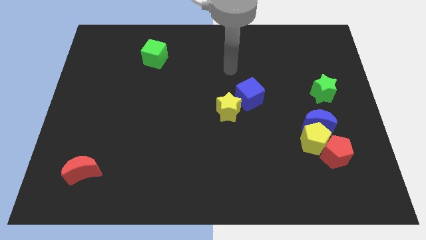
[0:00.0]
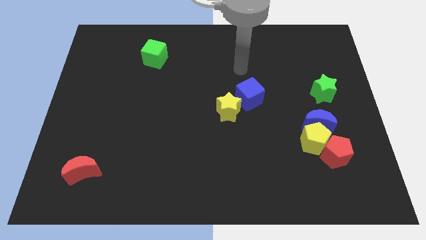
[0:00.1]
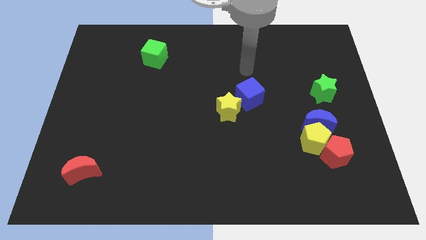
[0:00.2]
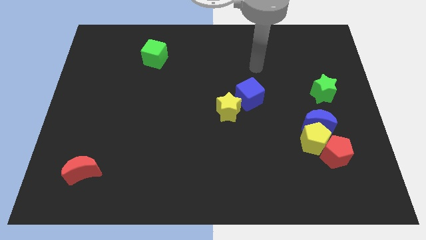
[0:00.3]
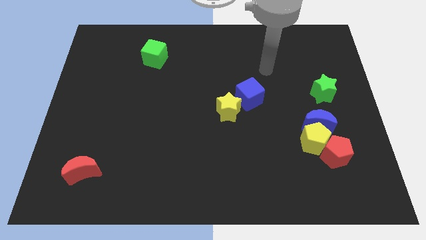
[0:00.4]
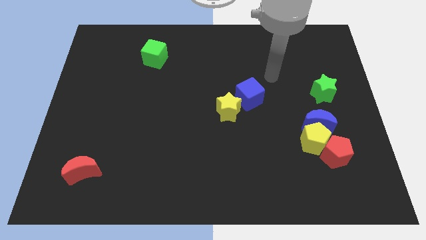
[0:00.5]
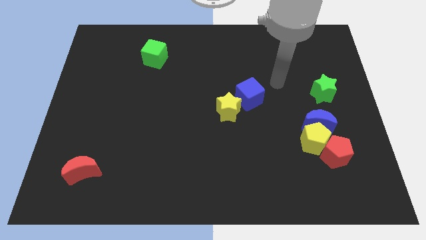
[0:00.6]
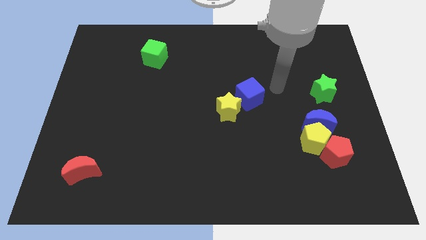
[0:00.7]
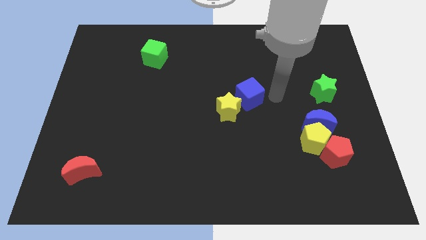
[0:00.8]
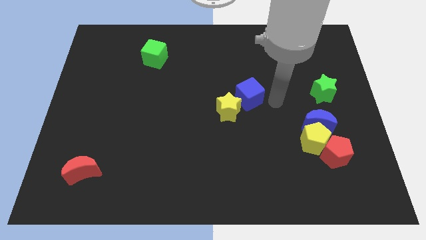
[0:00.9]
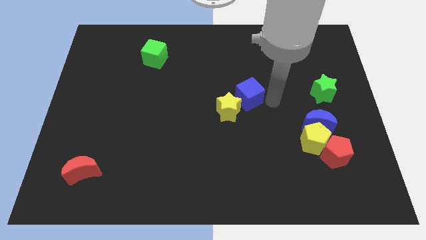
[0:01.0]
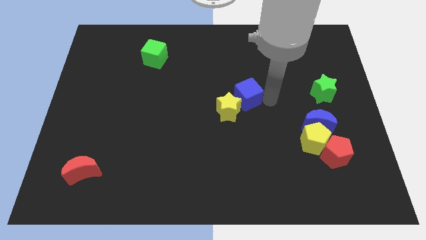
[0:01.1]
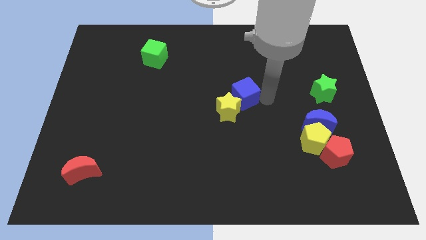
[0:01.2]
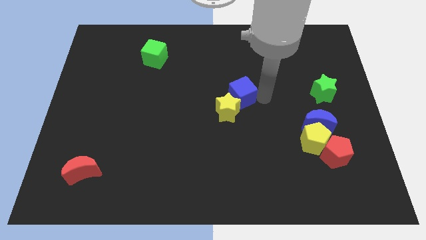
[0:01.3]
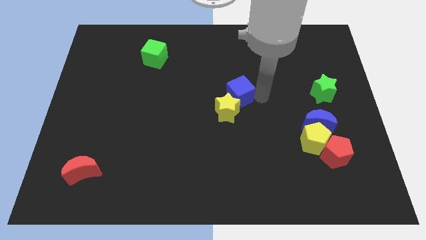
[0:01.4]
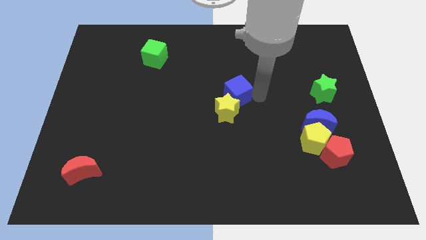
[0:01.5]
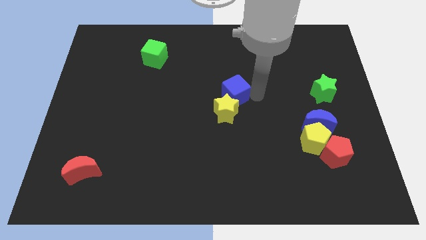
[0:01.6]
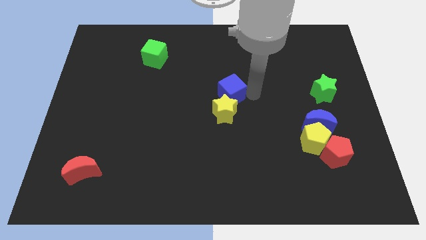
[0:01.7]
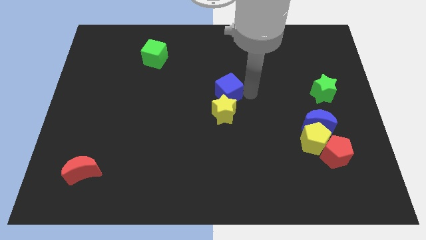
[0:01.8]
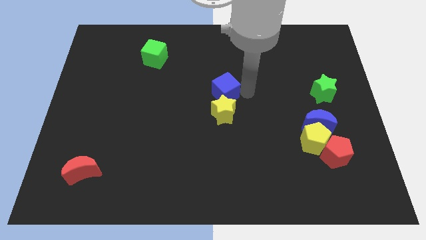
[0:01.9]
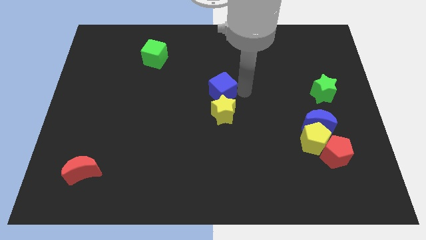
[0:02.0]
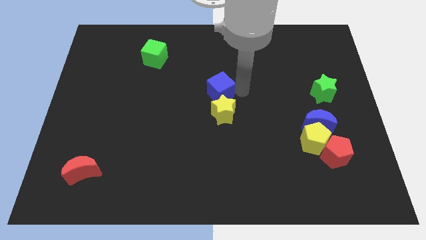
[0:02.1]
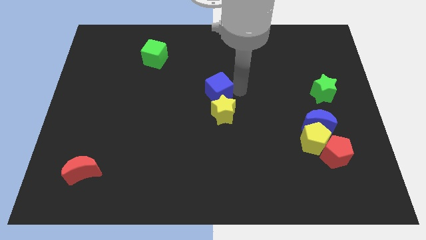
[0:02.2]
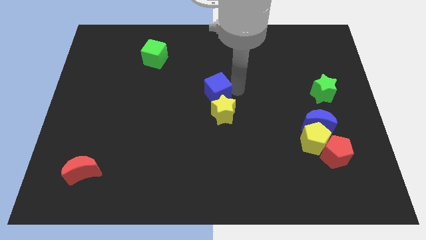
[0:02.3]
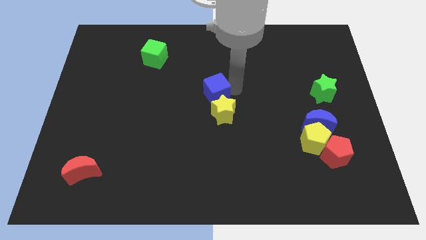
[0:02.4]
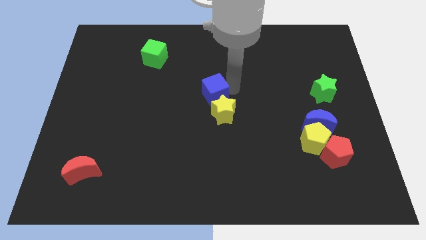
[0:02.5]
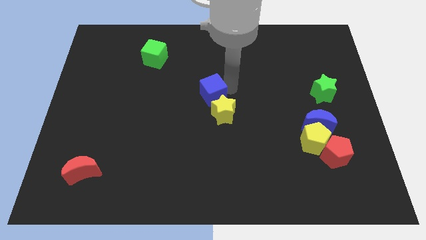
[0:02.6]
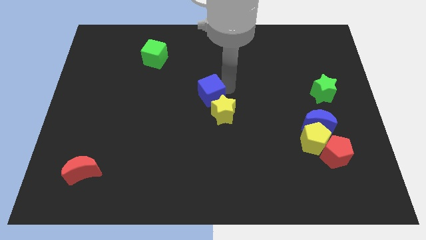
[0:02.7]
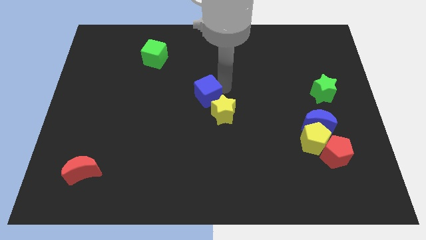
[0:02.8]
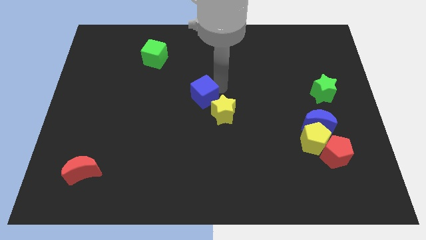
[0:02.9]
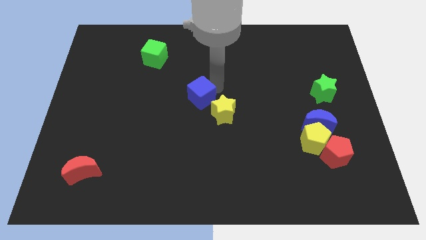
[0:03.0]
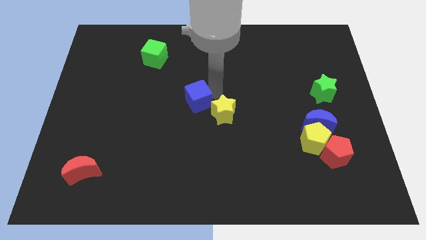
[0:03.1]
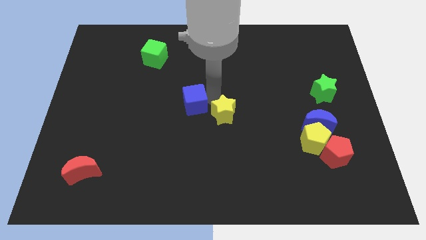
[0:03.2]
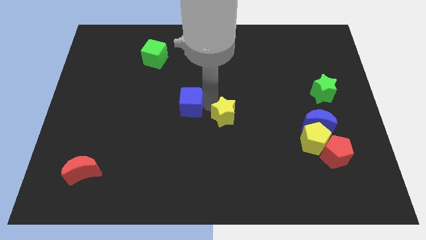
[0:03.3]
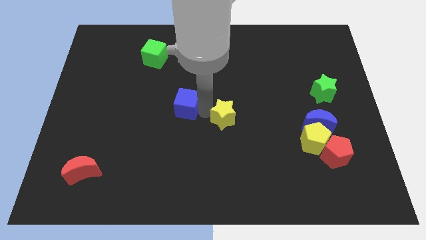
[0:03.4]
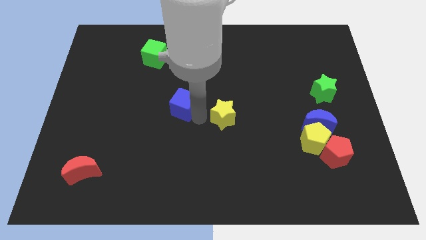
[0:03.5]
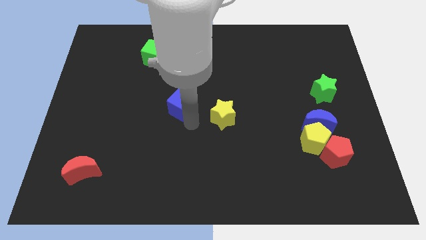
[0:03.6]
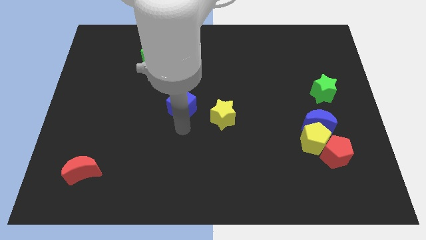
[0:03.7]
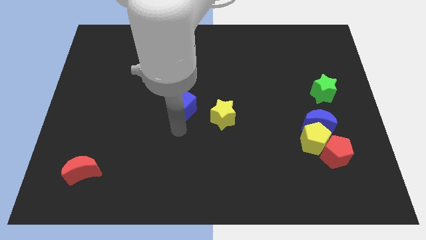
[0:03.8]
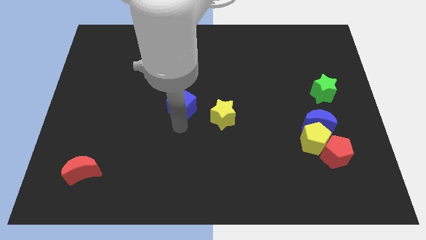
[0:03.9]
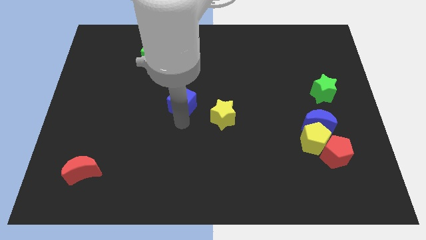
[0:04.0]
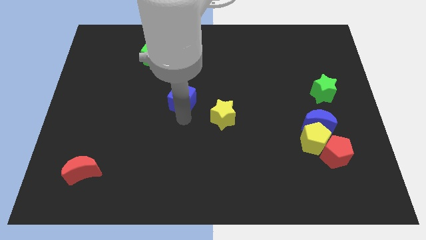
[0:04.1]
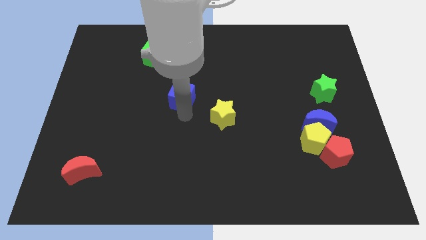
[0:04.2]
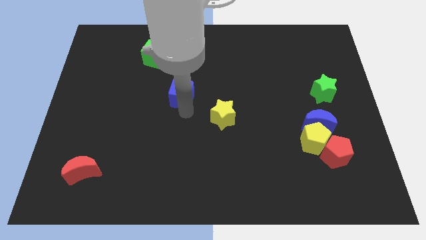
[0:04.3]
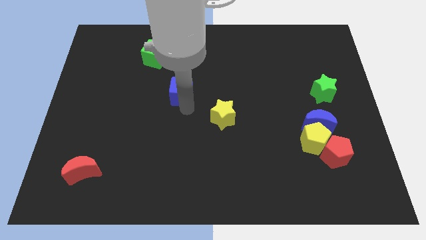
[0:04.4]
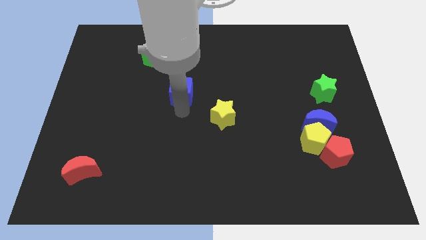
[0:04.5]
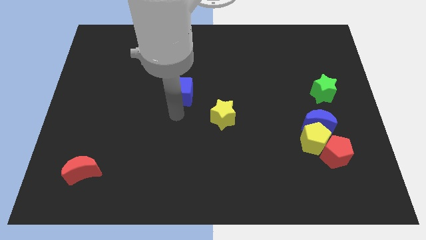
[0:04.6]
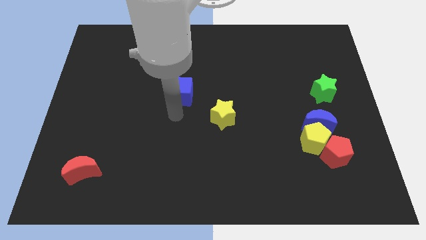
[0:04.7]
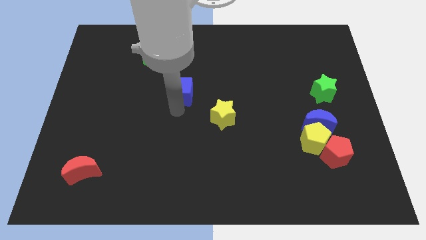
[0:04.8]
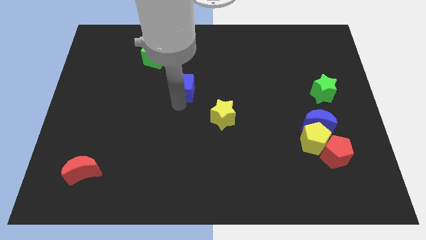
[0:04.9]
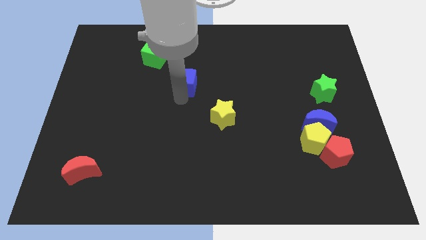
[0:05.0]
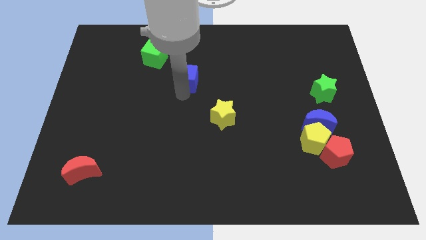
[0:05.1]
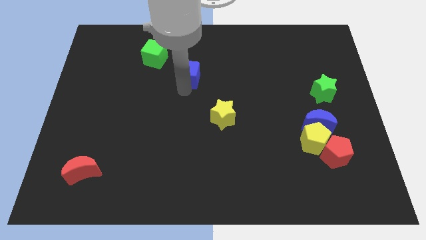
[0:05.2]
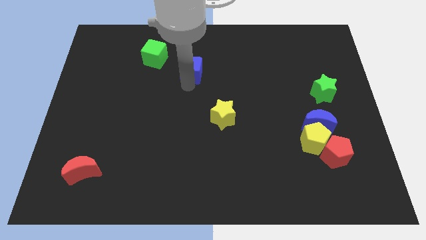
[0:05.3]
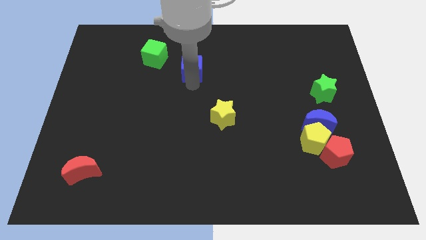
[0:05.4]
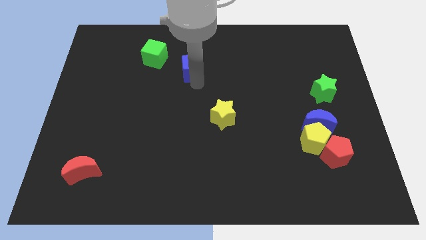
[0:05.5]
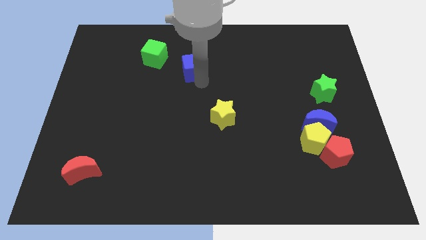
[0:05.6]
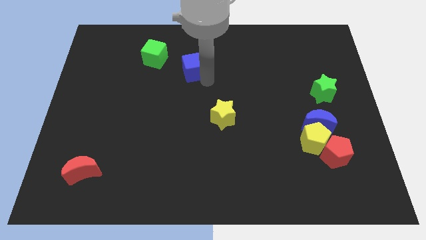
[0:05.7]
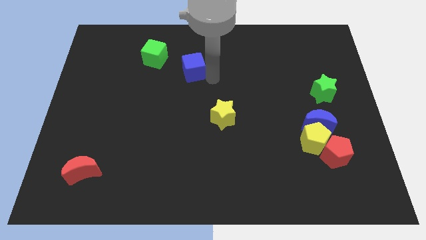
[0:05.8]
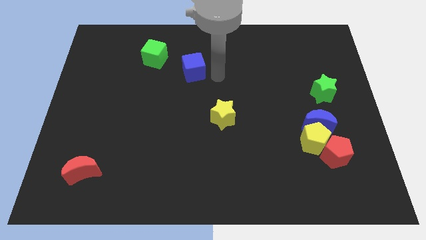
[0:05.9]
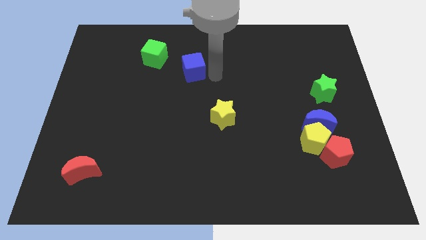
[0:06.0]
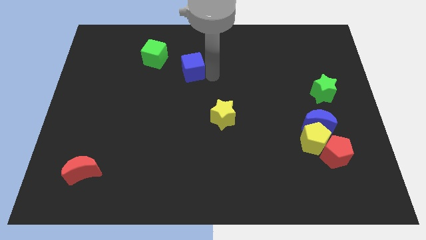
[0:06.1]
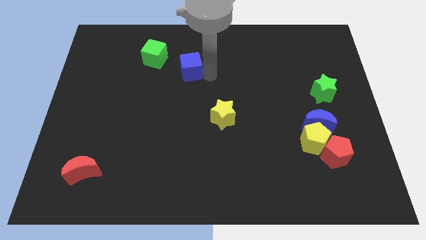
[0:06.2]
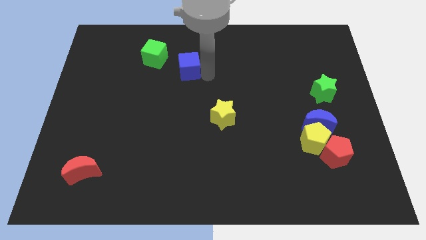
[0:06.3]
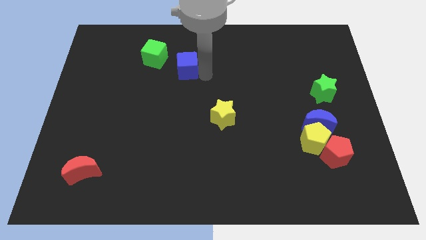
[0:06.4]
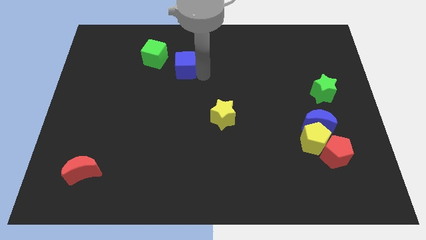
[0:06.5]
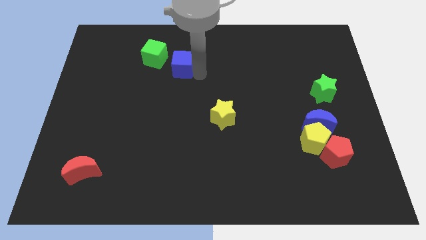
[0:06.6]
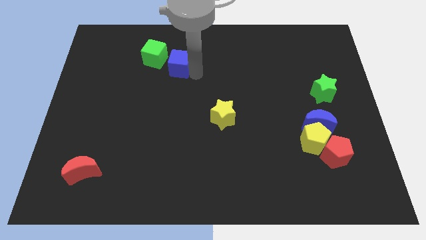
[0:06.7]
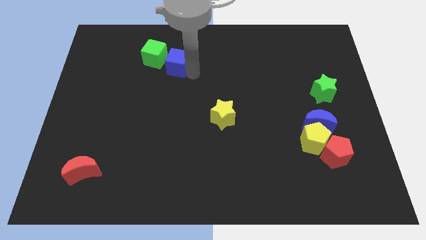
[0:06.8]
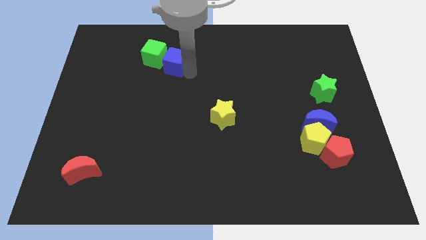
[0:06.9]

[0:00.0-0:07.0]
push the blue cube next to the green cube

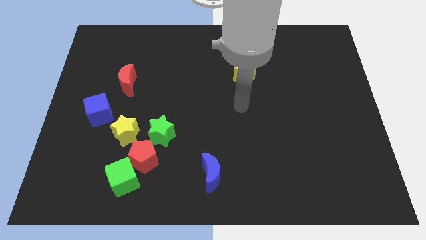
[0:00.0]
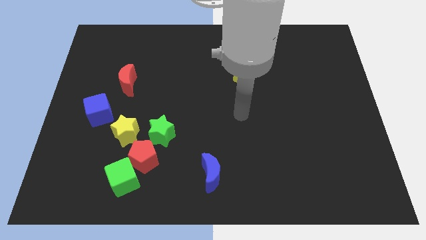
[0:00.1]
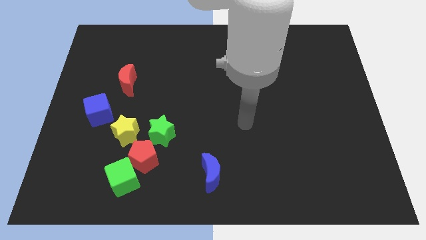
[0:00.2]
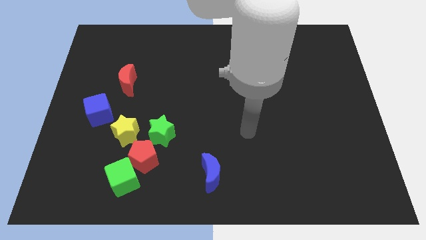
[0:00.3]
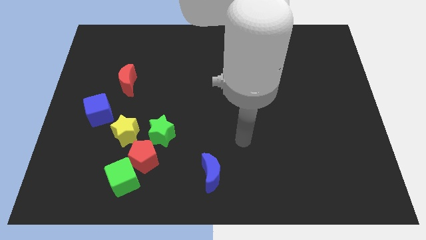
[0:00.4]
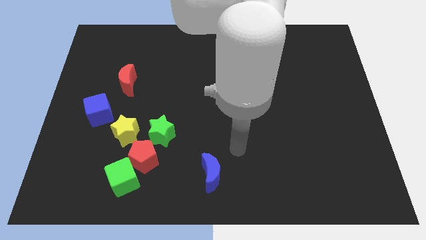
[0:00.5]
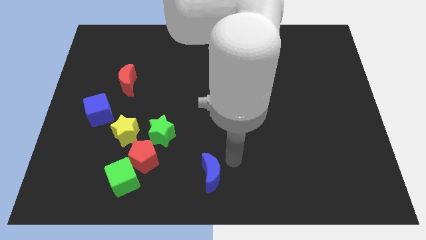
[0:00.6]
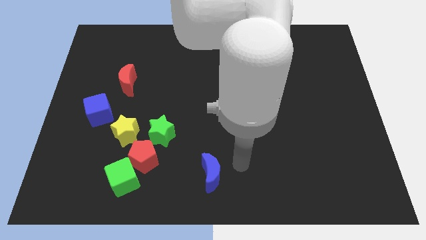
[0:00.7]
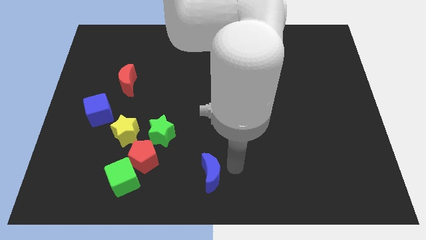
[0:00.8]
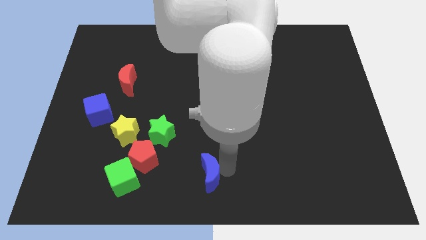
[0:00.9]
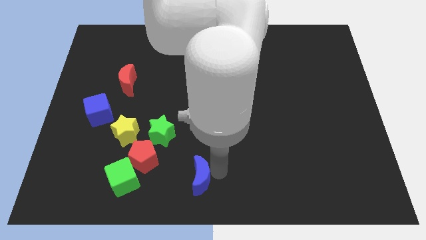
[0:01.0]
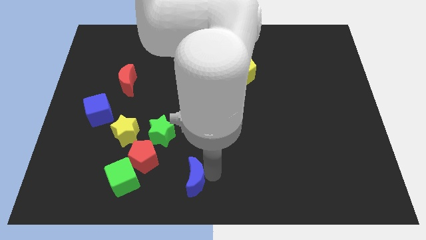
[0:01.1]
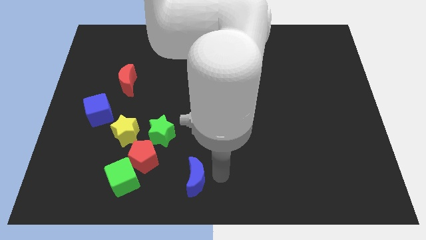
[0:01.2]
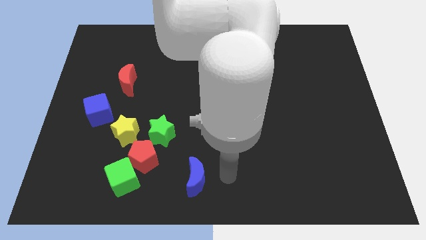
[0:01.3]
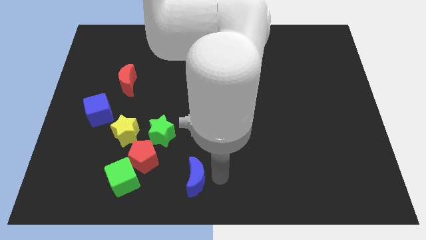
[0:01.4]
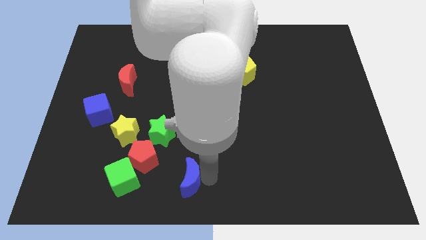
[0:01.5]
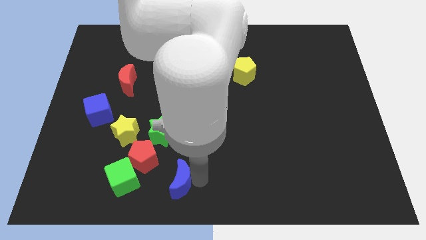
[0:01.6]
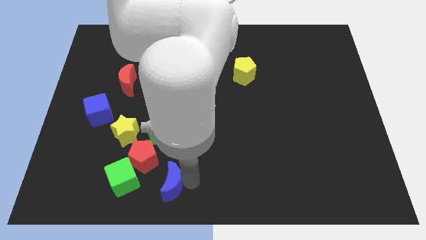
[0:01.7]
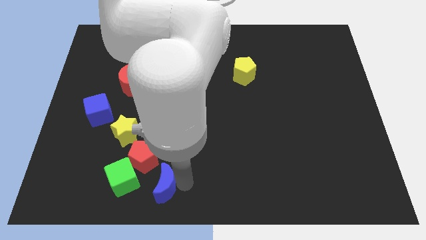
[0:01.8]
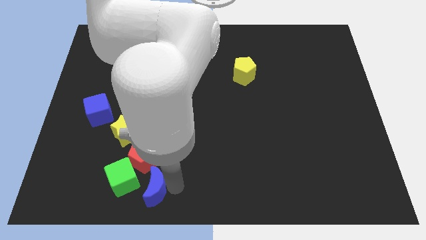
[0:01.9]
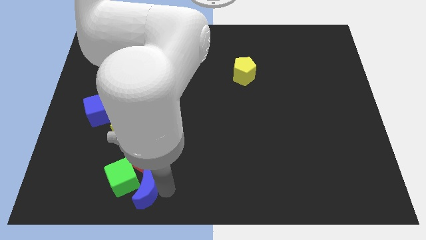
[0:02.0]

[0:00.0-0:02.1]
put the blue moon towards the green cube
